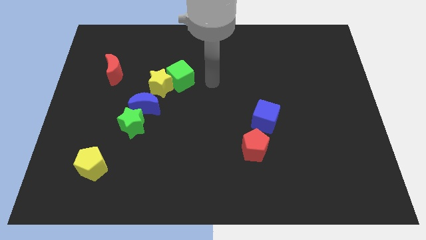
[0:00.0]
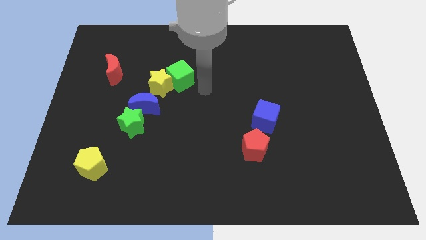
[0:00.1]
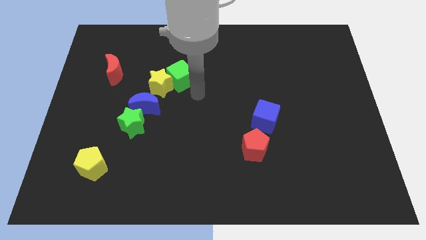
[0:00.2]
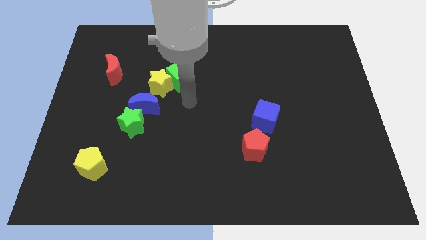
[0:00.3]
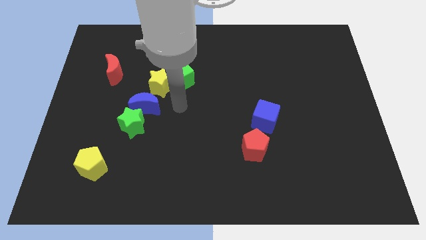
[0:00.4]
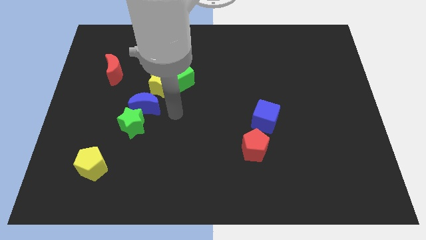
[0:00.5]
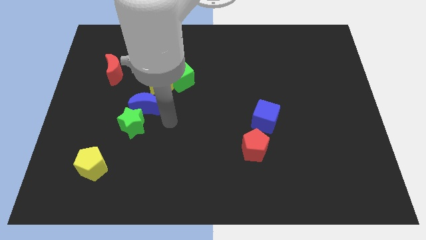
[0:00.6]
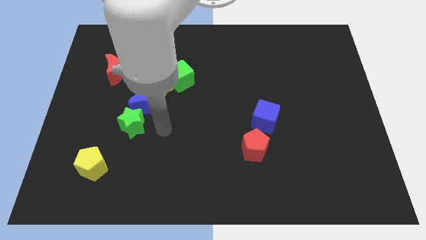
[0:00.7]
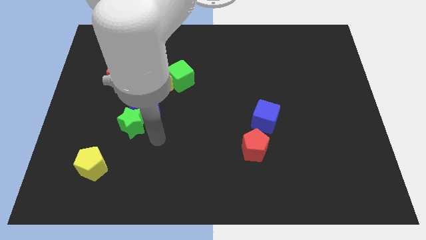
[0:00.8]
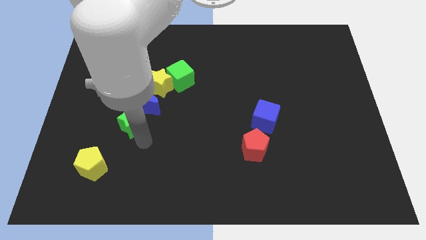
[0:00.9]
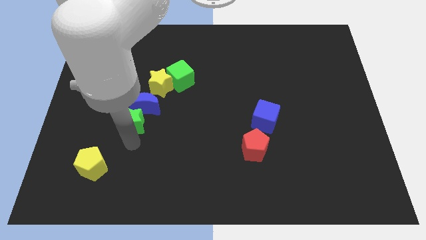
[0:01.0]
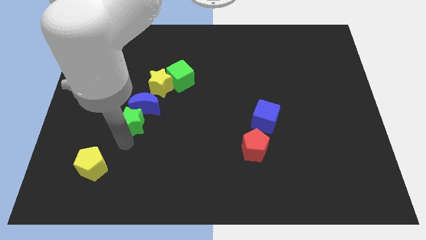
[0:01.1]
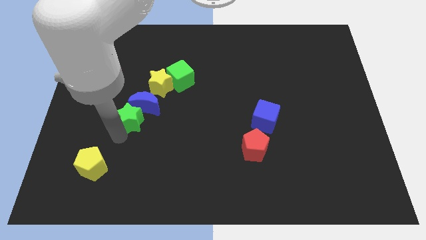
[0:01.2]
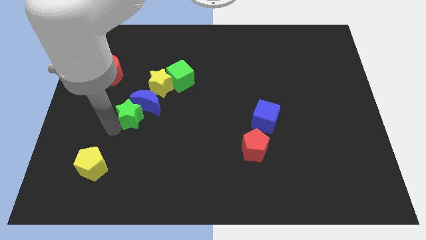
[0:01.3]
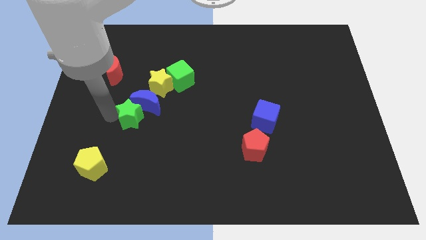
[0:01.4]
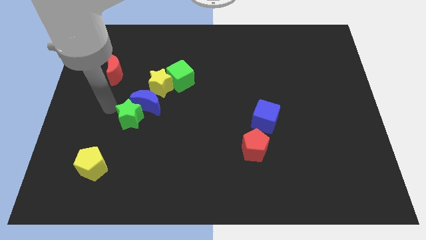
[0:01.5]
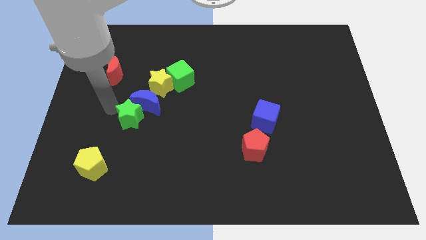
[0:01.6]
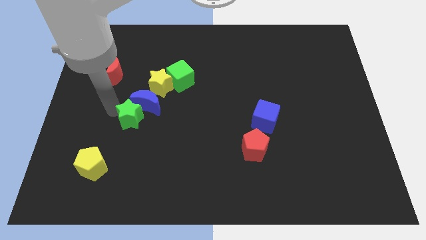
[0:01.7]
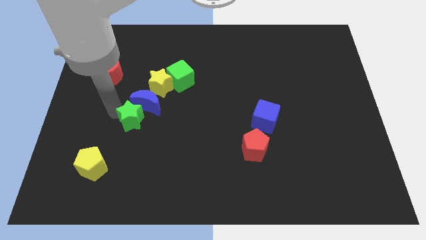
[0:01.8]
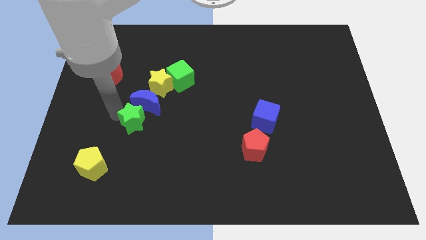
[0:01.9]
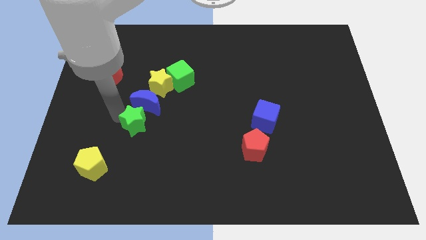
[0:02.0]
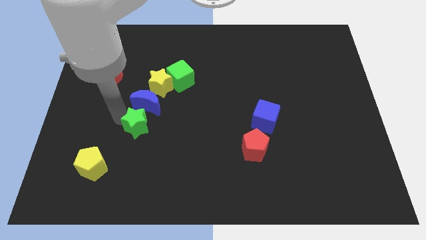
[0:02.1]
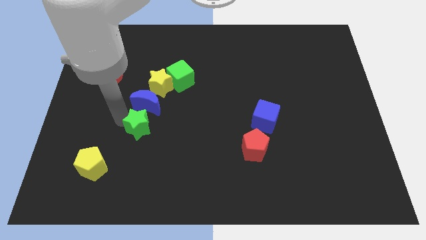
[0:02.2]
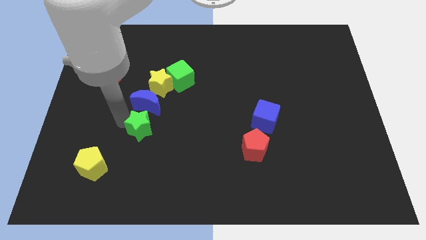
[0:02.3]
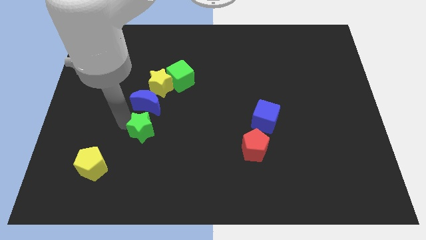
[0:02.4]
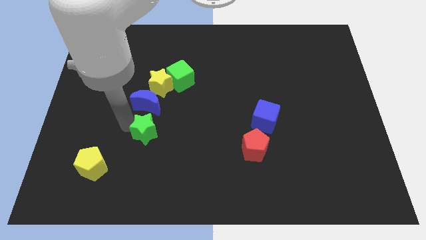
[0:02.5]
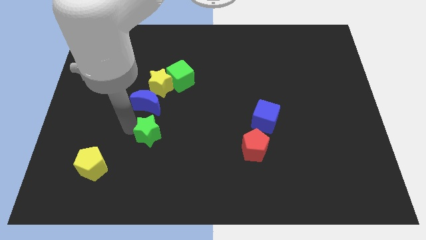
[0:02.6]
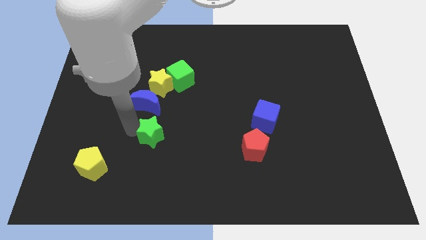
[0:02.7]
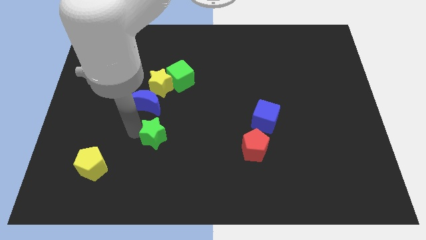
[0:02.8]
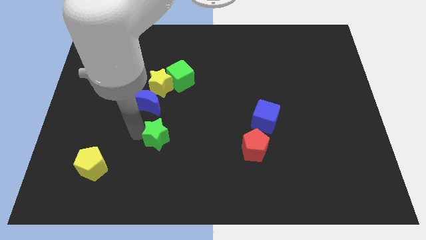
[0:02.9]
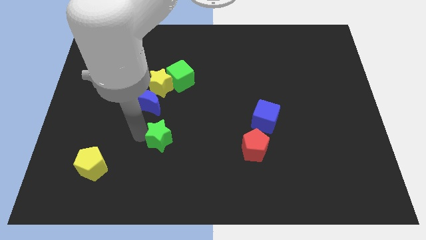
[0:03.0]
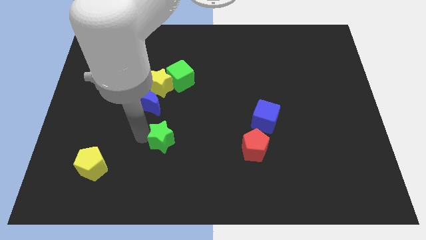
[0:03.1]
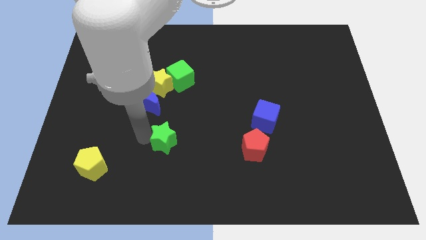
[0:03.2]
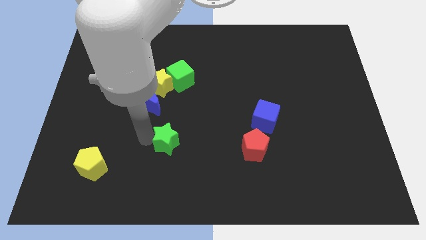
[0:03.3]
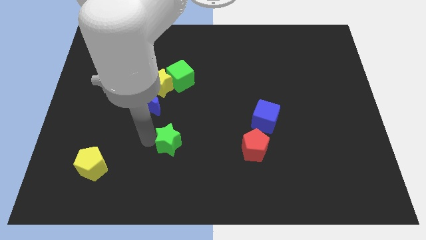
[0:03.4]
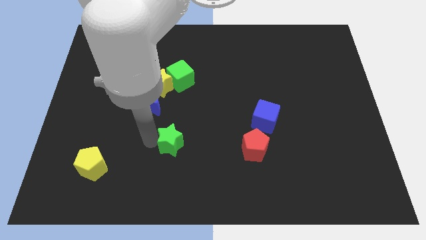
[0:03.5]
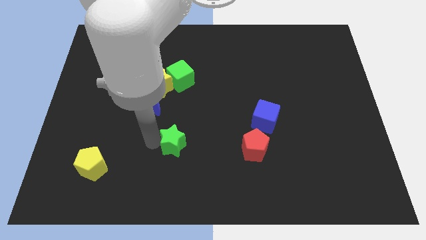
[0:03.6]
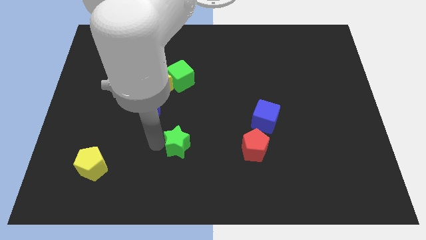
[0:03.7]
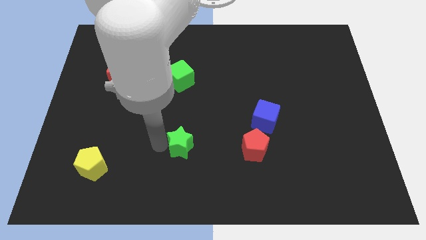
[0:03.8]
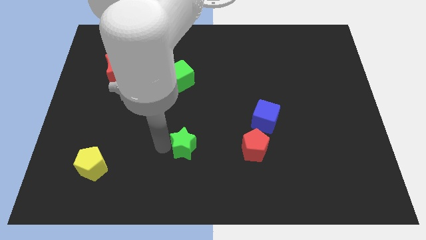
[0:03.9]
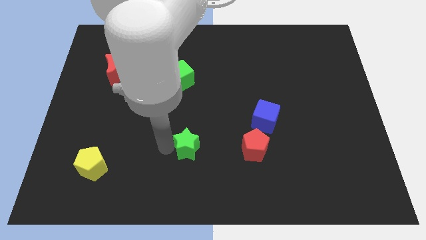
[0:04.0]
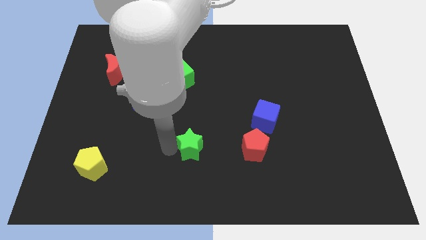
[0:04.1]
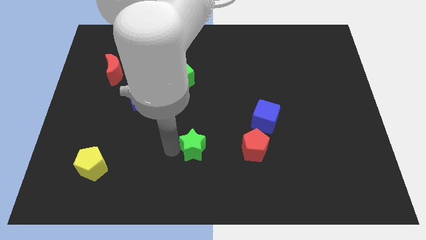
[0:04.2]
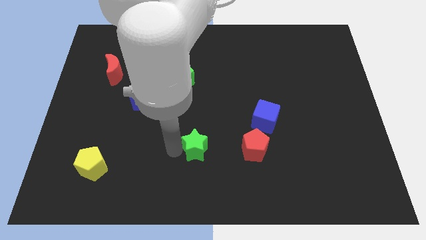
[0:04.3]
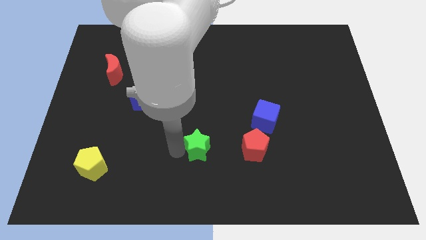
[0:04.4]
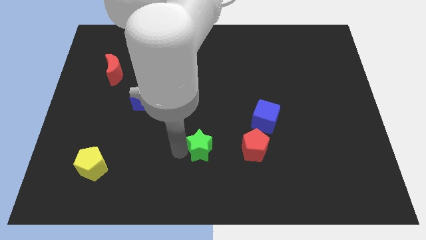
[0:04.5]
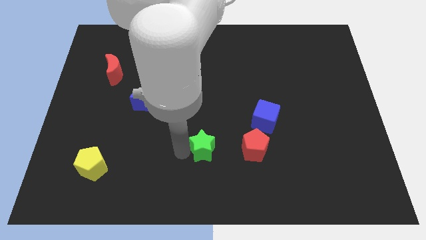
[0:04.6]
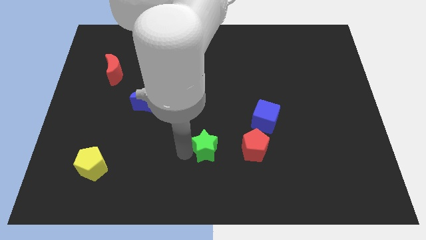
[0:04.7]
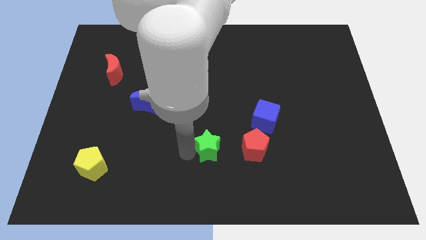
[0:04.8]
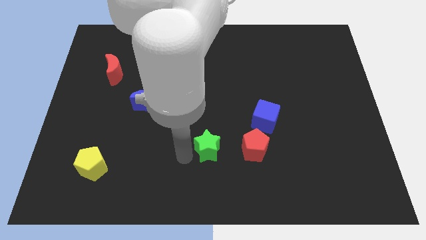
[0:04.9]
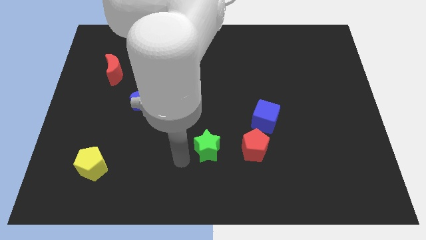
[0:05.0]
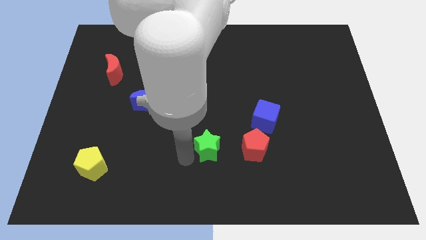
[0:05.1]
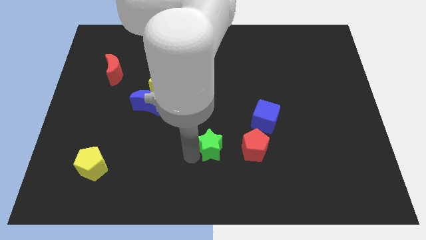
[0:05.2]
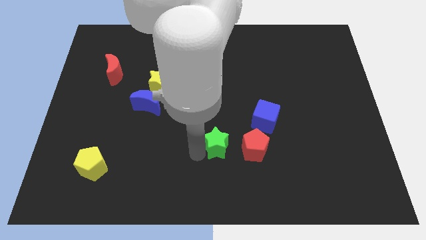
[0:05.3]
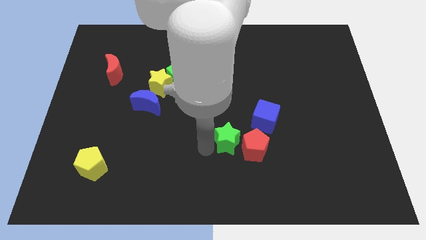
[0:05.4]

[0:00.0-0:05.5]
slide the green star close to the red pentagon

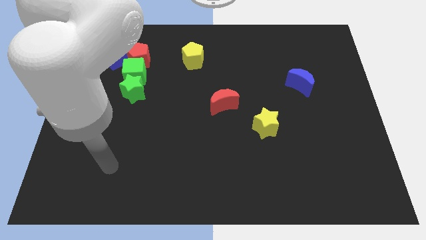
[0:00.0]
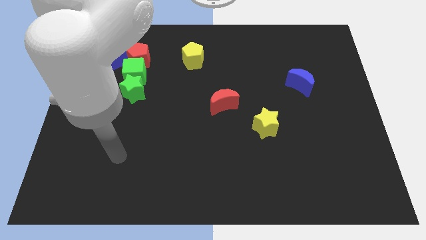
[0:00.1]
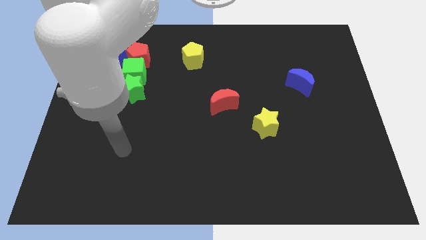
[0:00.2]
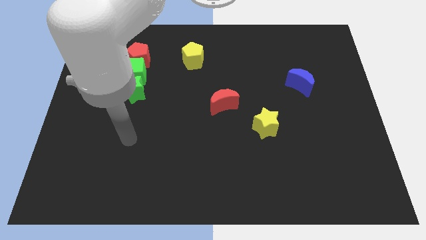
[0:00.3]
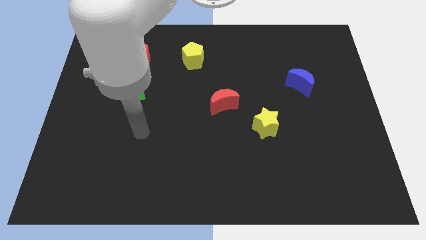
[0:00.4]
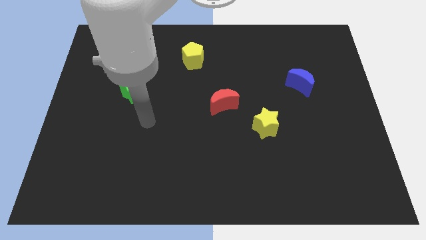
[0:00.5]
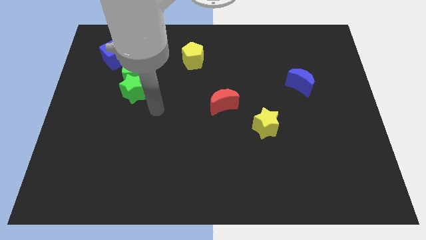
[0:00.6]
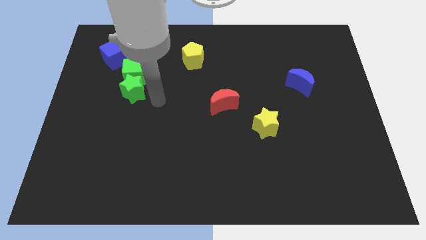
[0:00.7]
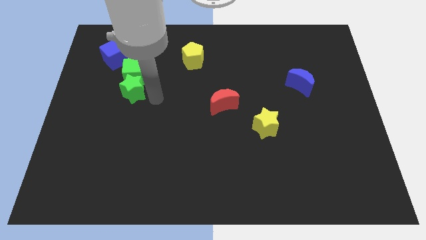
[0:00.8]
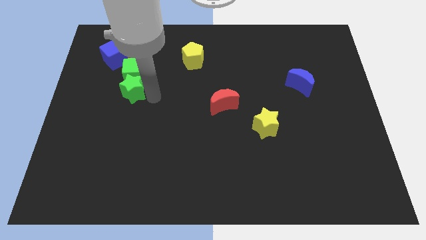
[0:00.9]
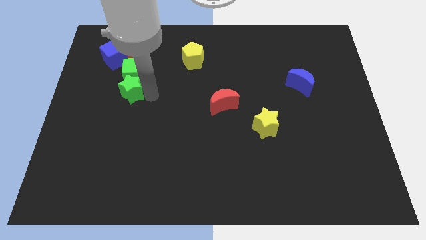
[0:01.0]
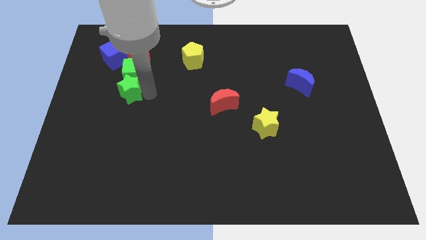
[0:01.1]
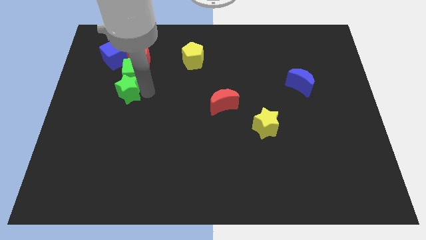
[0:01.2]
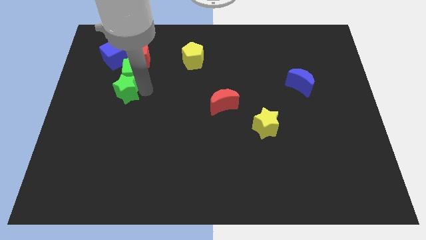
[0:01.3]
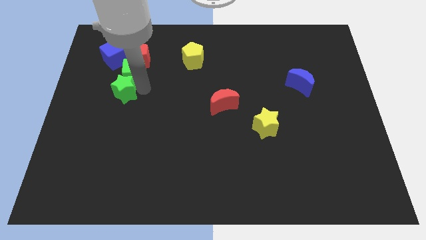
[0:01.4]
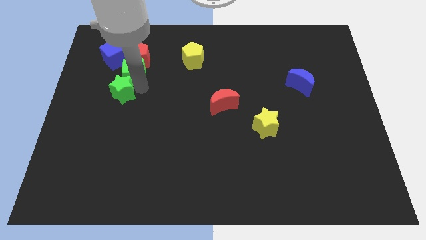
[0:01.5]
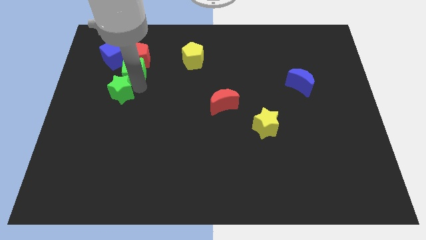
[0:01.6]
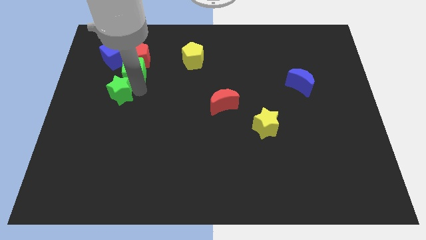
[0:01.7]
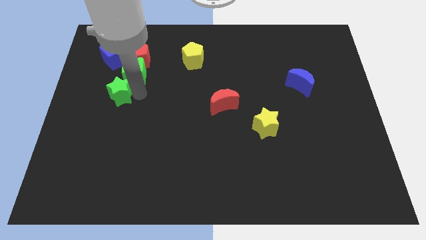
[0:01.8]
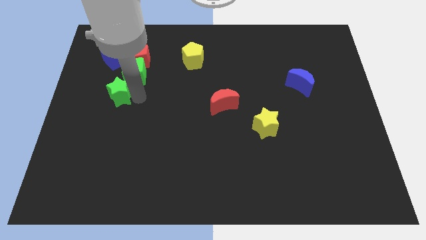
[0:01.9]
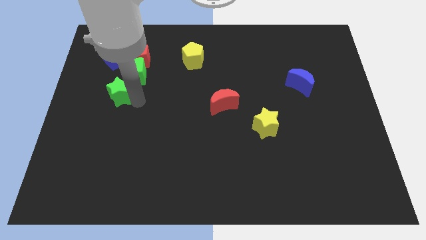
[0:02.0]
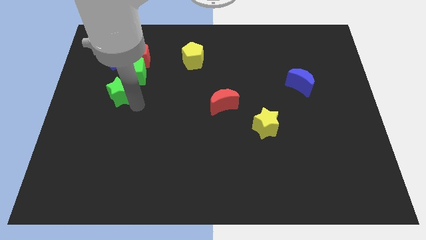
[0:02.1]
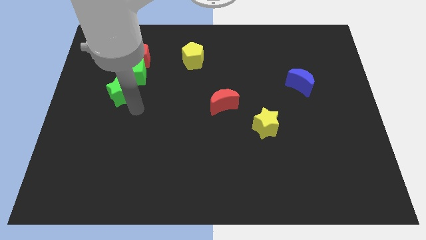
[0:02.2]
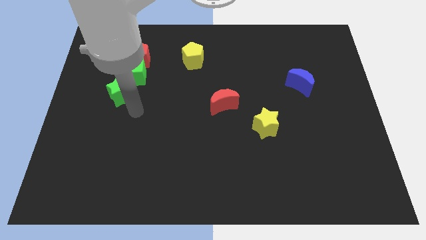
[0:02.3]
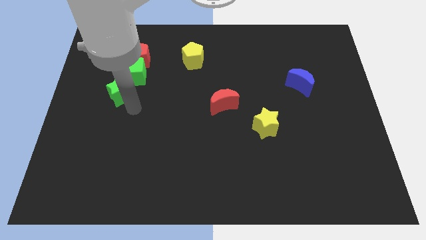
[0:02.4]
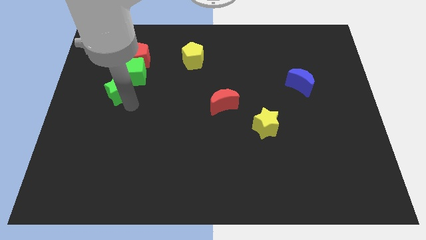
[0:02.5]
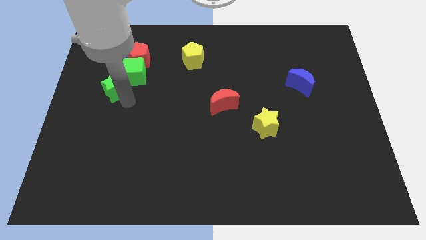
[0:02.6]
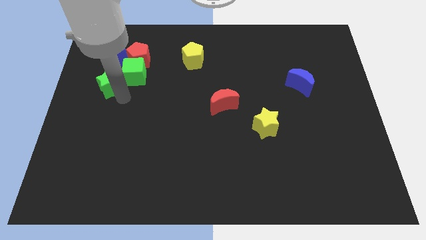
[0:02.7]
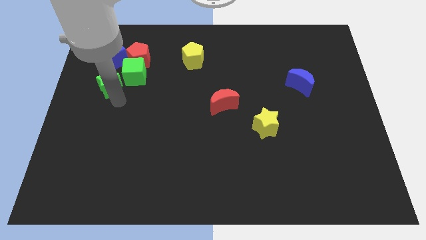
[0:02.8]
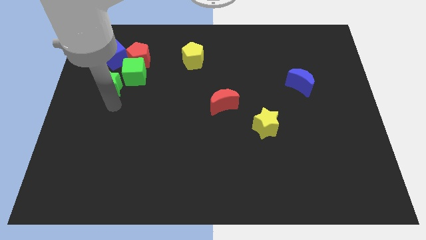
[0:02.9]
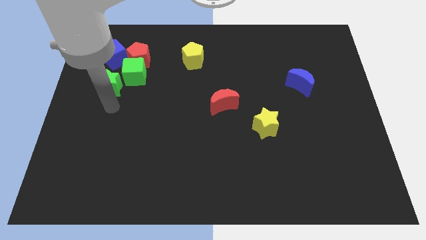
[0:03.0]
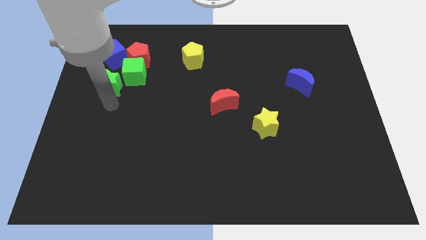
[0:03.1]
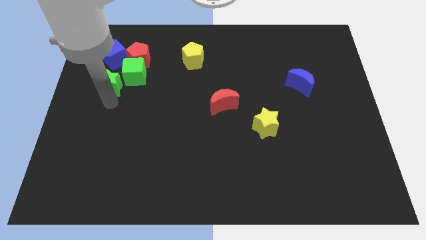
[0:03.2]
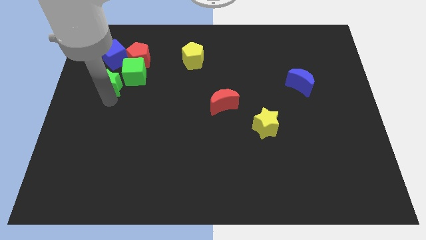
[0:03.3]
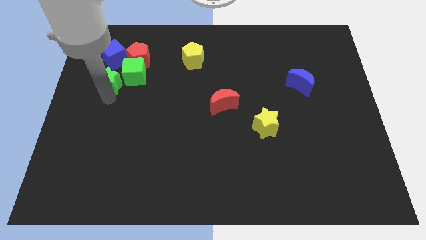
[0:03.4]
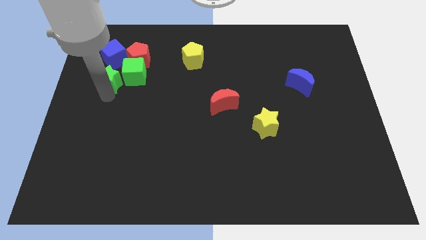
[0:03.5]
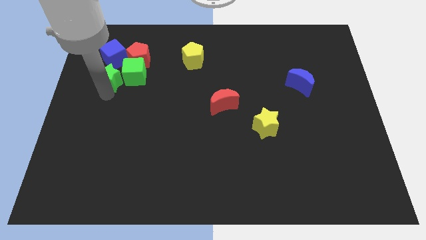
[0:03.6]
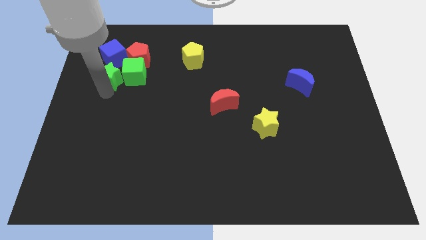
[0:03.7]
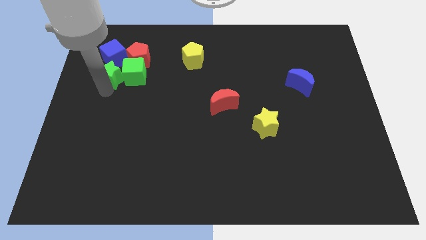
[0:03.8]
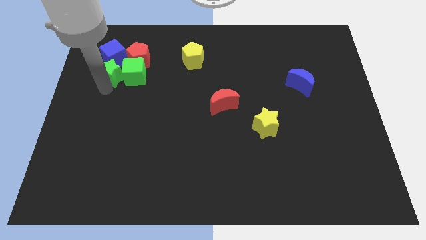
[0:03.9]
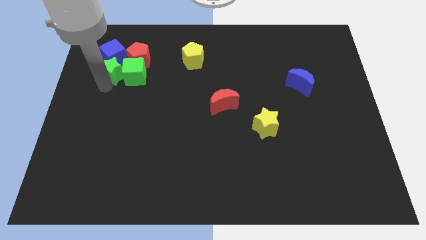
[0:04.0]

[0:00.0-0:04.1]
put the green star to the blue cube
